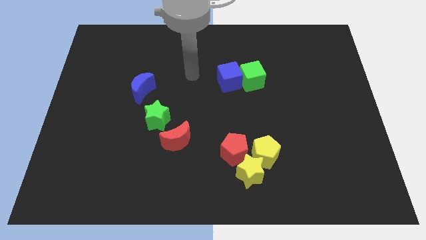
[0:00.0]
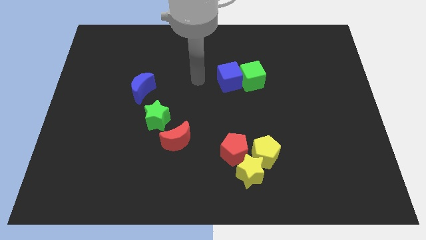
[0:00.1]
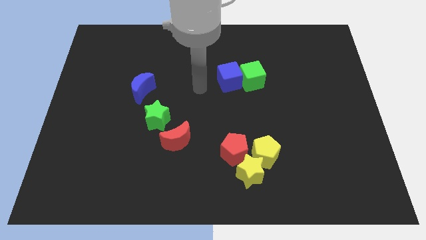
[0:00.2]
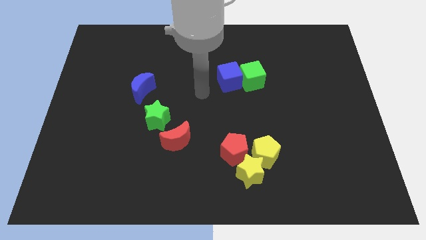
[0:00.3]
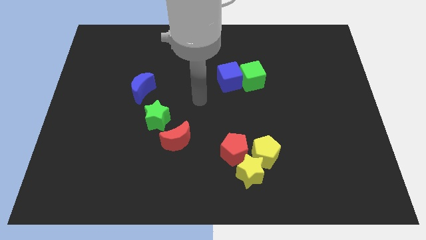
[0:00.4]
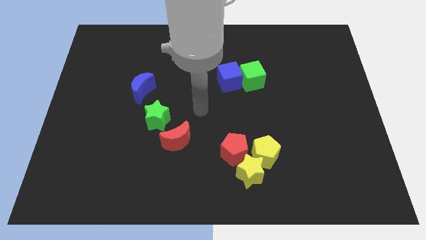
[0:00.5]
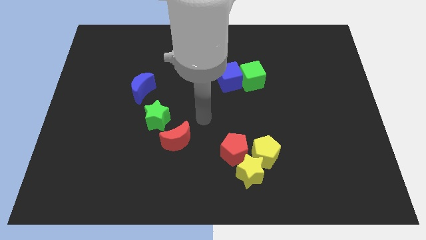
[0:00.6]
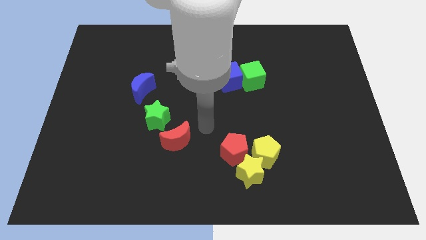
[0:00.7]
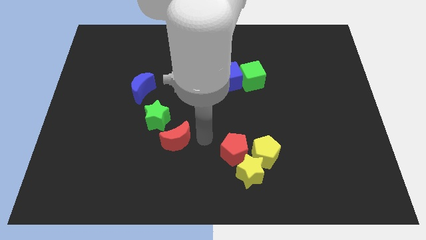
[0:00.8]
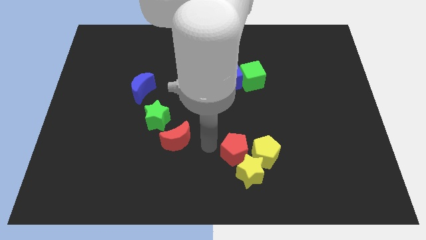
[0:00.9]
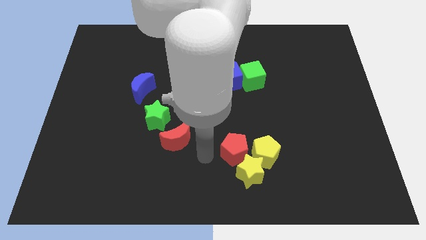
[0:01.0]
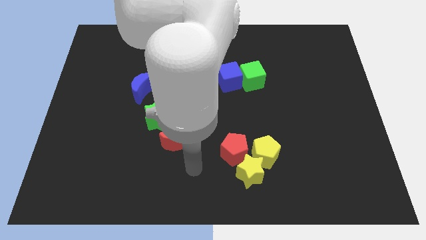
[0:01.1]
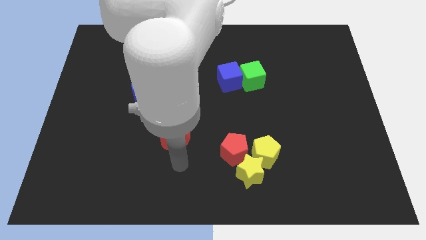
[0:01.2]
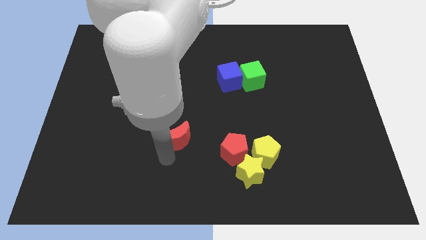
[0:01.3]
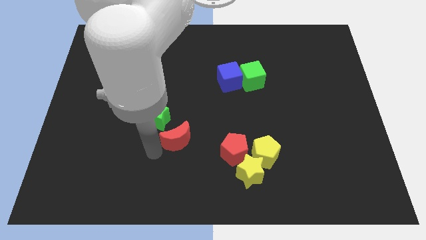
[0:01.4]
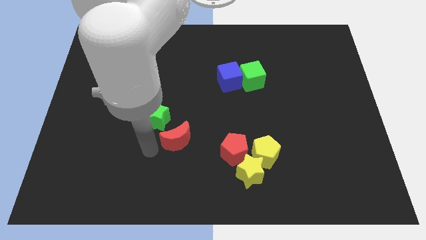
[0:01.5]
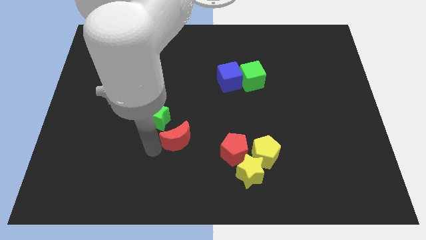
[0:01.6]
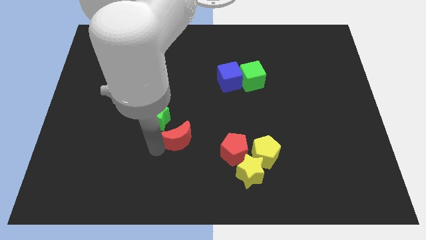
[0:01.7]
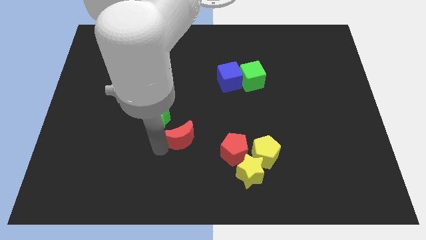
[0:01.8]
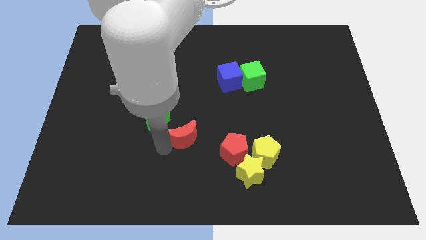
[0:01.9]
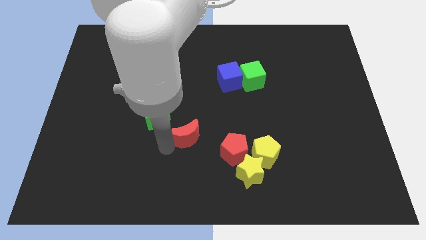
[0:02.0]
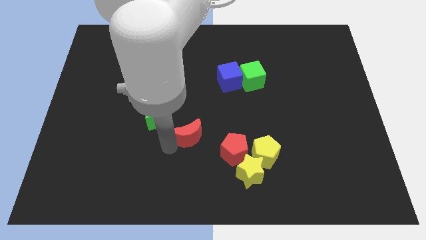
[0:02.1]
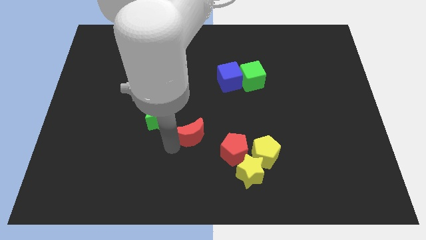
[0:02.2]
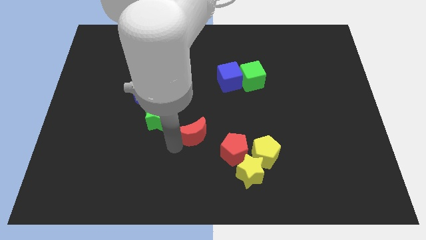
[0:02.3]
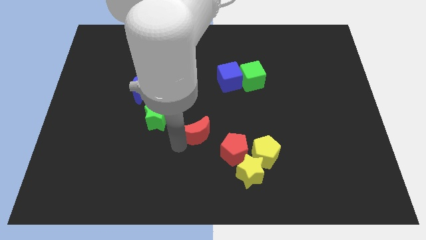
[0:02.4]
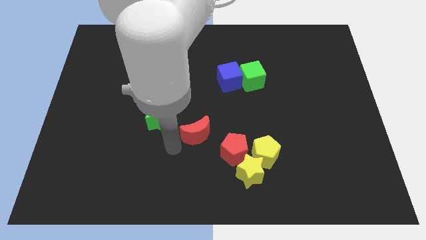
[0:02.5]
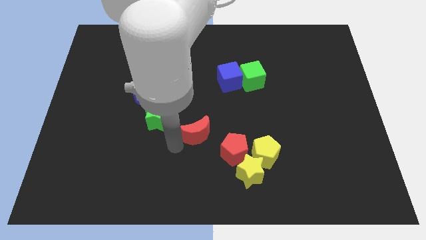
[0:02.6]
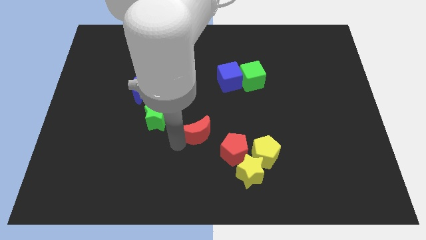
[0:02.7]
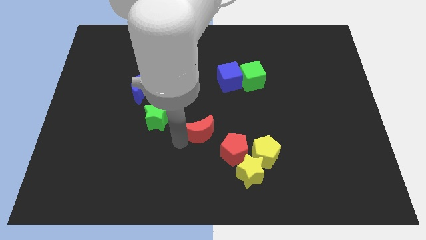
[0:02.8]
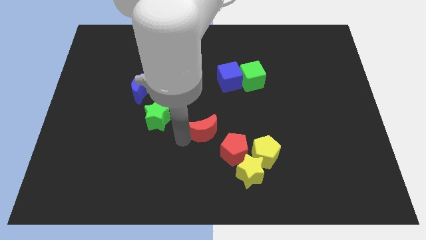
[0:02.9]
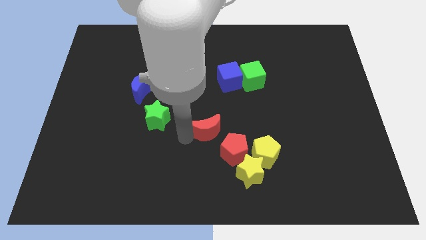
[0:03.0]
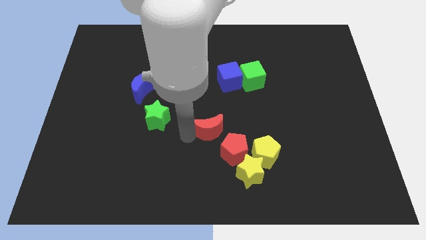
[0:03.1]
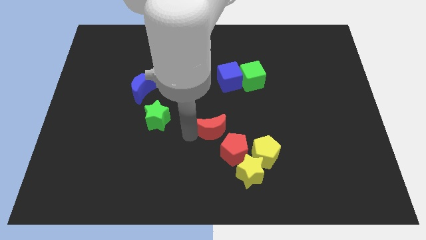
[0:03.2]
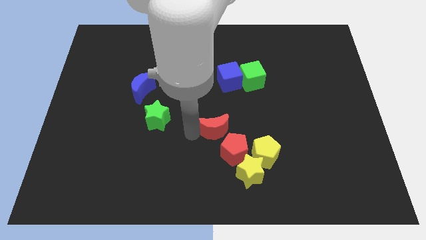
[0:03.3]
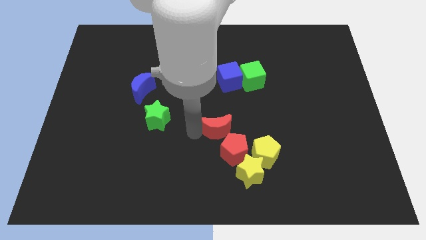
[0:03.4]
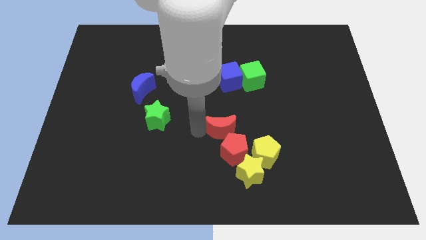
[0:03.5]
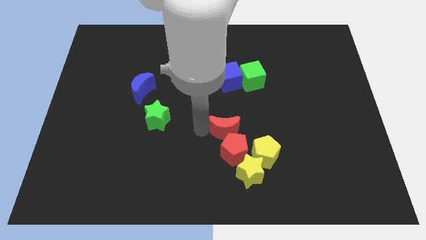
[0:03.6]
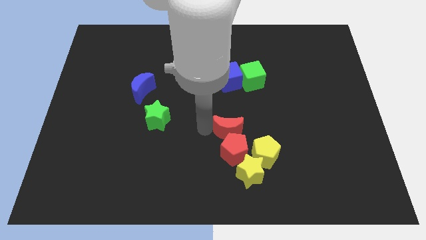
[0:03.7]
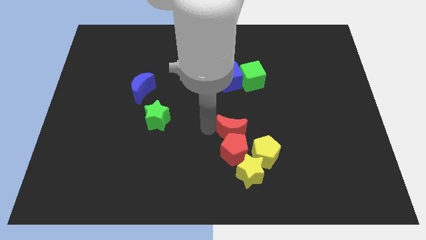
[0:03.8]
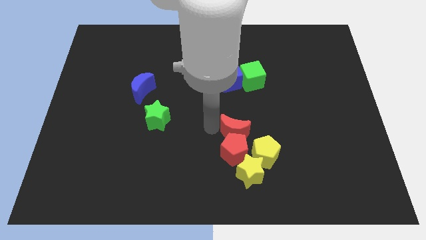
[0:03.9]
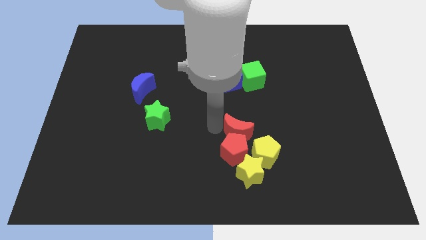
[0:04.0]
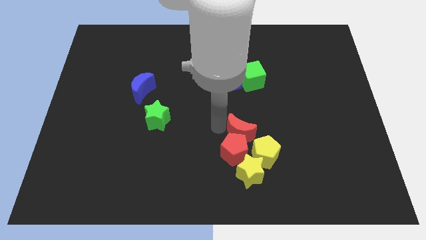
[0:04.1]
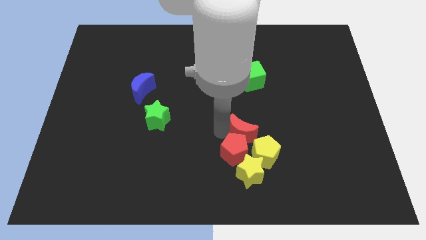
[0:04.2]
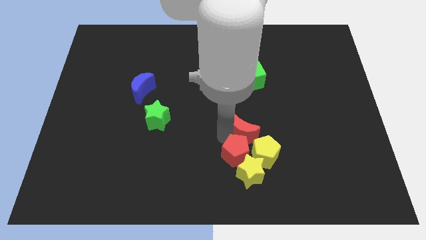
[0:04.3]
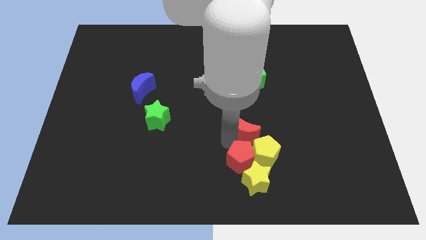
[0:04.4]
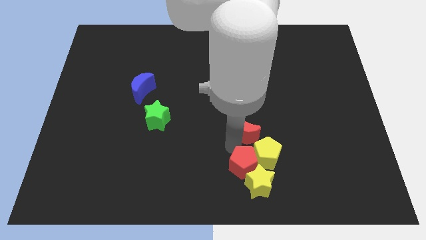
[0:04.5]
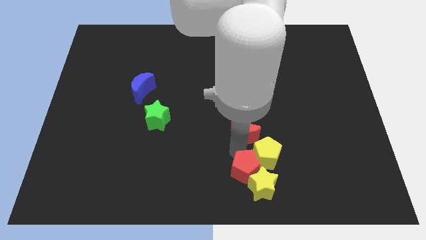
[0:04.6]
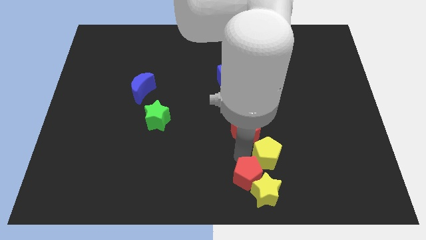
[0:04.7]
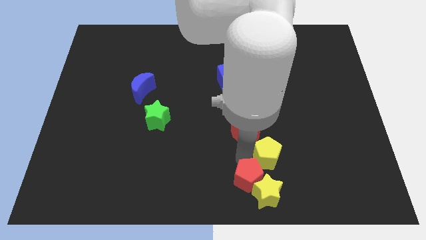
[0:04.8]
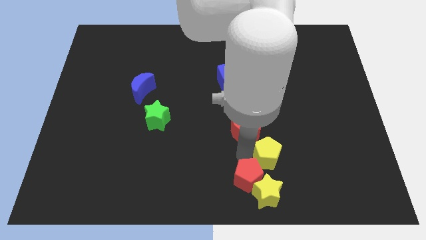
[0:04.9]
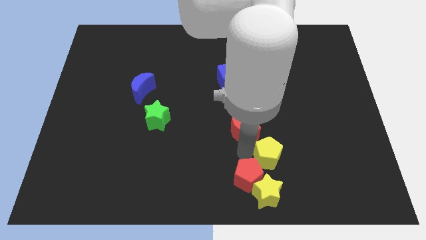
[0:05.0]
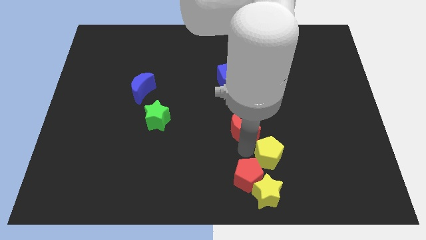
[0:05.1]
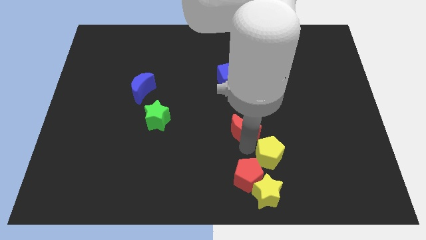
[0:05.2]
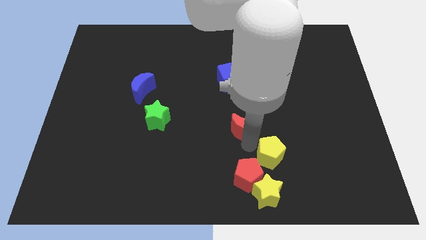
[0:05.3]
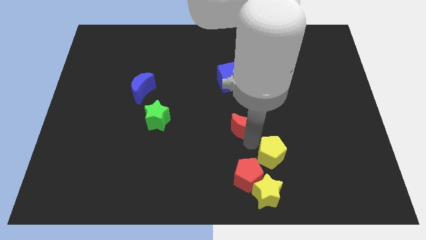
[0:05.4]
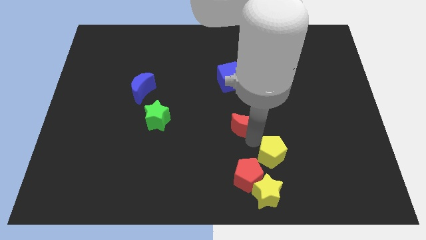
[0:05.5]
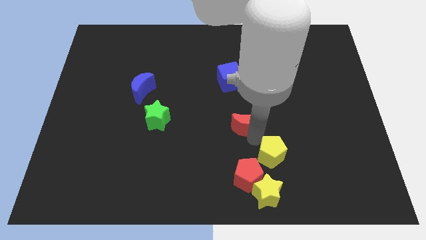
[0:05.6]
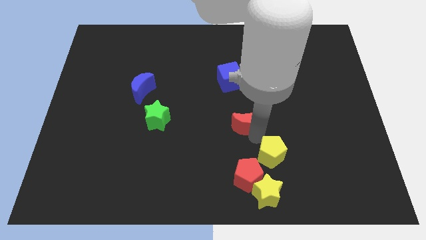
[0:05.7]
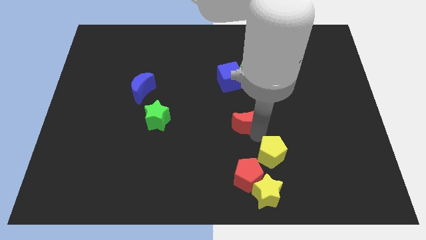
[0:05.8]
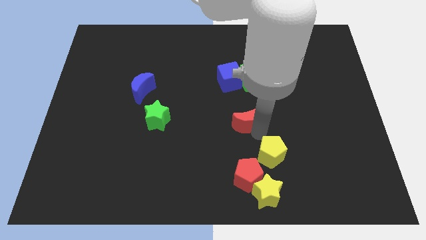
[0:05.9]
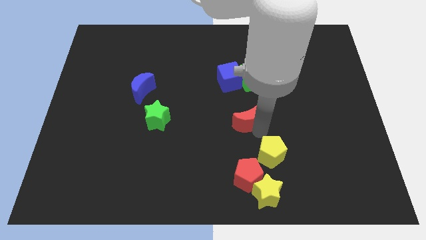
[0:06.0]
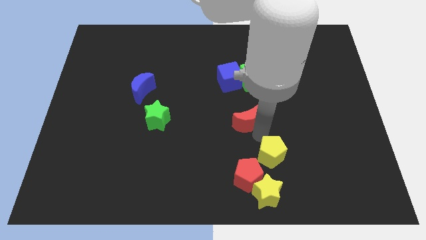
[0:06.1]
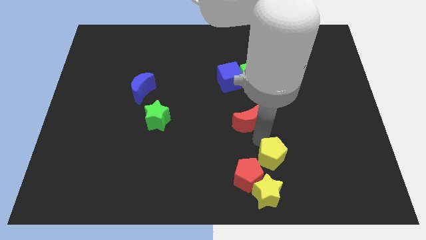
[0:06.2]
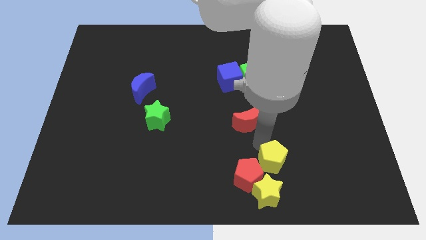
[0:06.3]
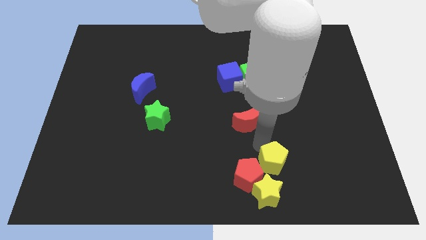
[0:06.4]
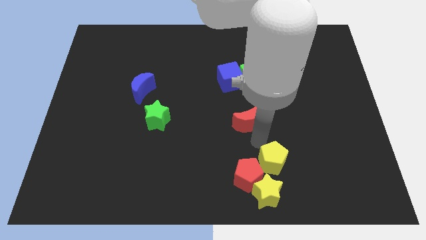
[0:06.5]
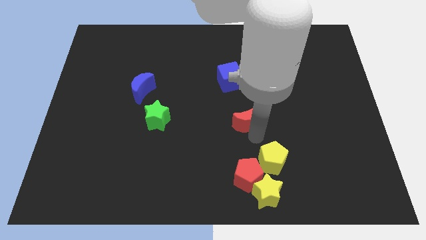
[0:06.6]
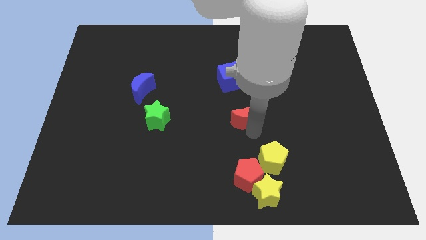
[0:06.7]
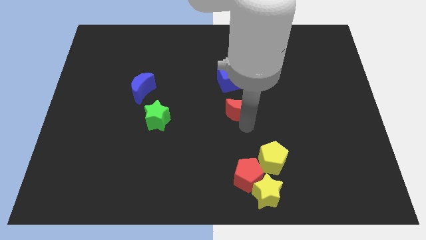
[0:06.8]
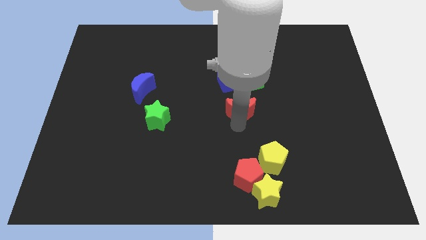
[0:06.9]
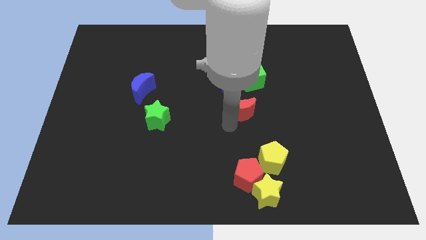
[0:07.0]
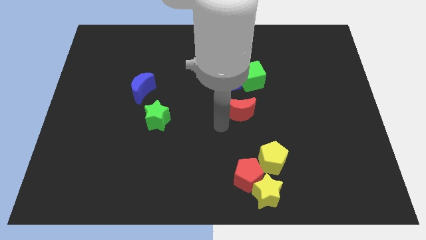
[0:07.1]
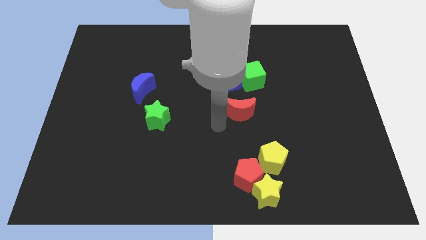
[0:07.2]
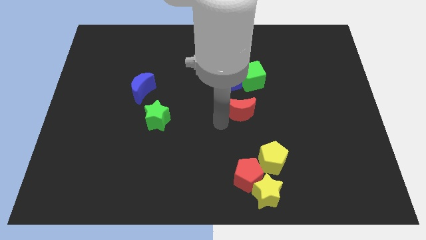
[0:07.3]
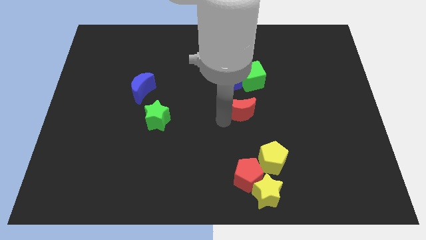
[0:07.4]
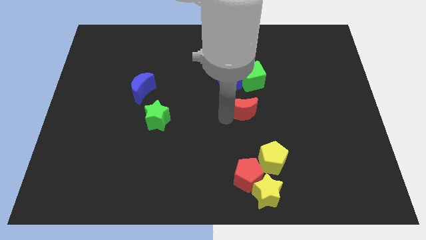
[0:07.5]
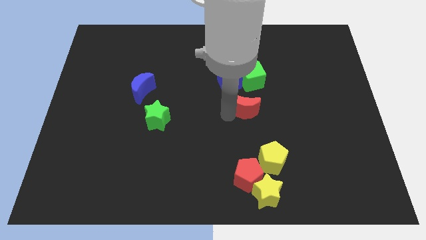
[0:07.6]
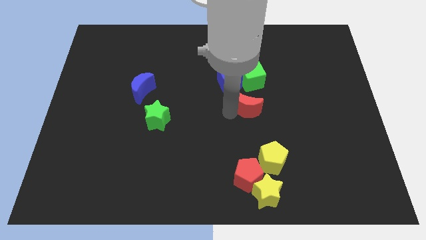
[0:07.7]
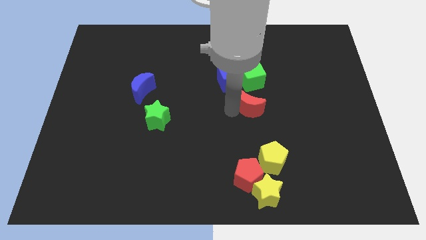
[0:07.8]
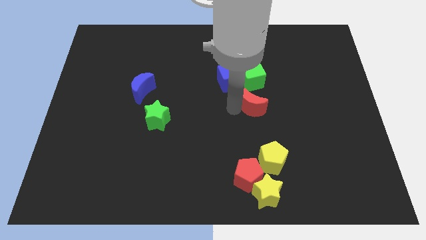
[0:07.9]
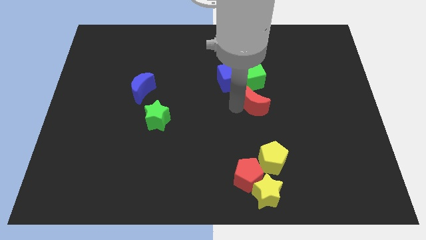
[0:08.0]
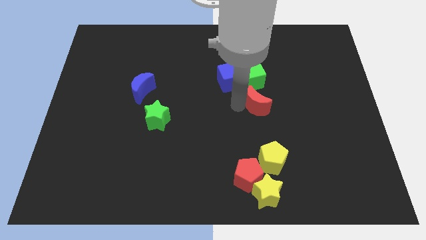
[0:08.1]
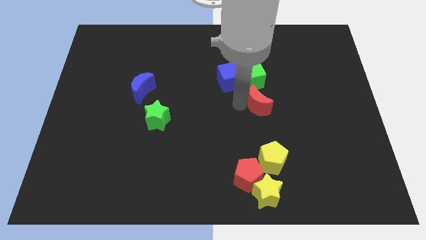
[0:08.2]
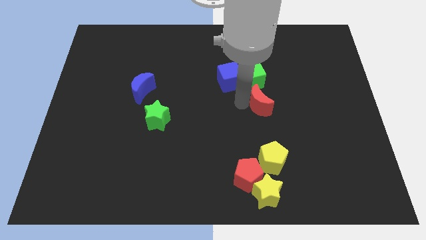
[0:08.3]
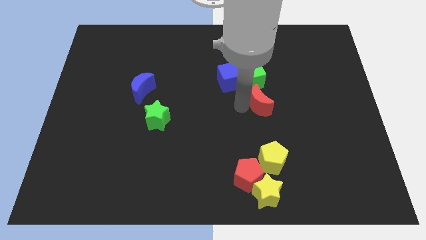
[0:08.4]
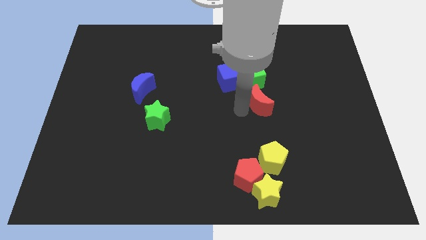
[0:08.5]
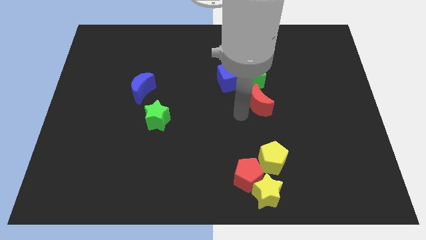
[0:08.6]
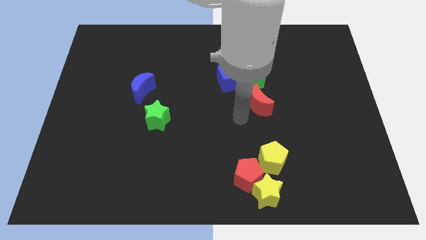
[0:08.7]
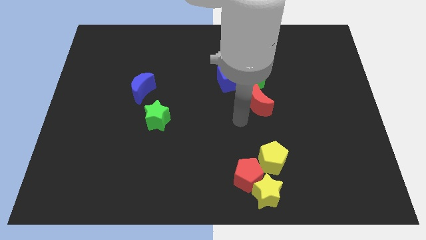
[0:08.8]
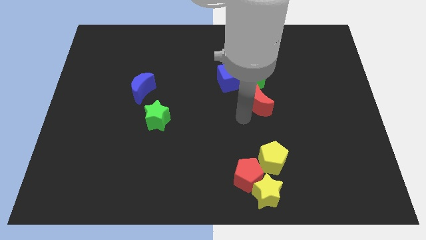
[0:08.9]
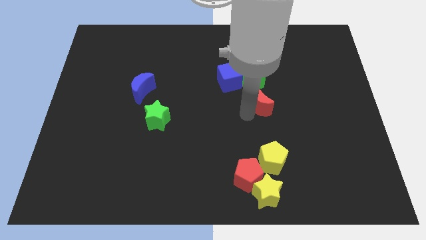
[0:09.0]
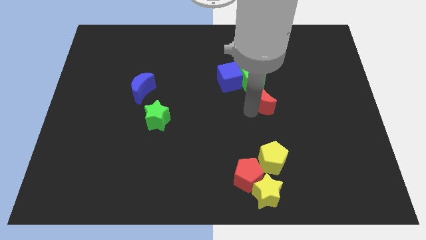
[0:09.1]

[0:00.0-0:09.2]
push the red moon diagonally up and to the right
